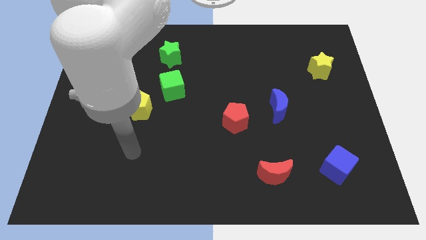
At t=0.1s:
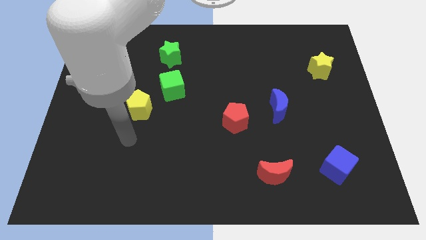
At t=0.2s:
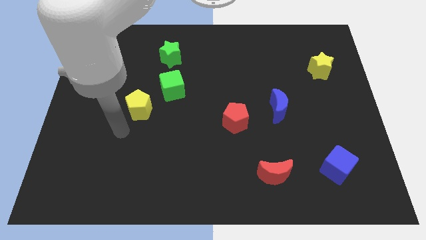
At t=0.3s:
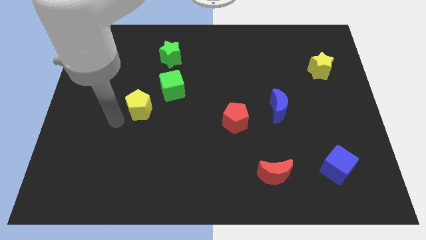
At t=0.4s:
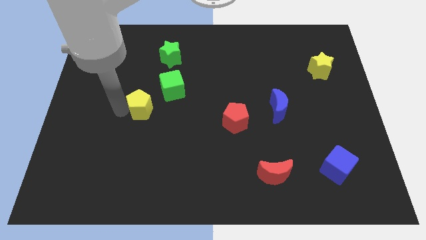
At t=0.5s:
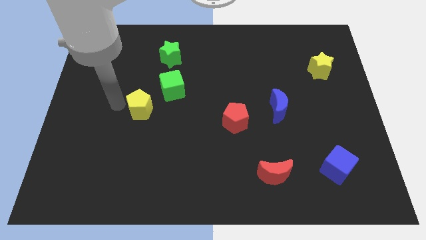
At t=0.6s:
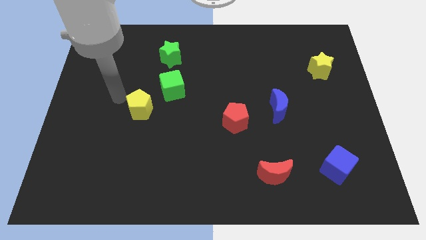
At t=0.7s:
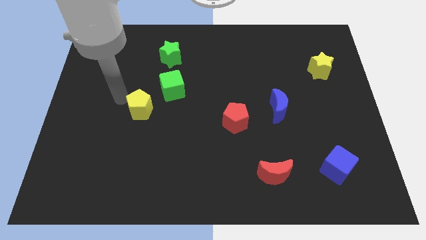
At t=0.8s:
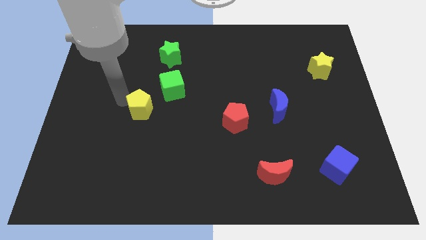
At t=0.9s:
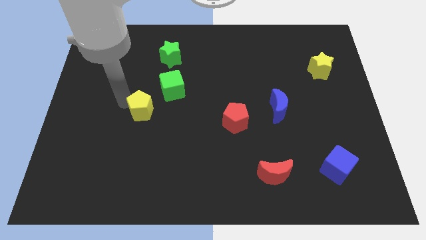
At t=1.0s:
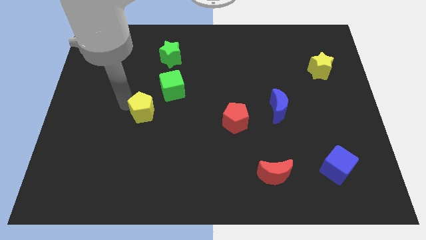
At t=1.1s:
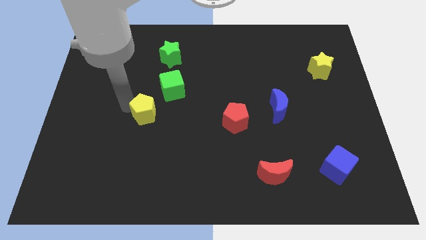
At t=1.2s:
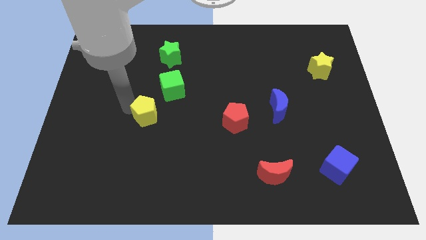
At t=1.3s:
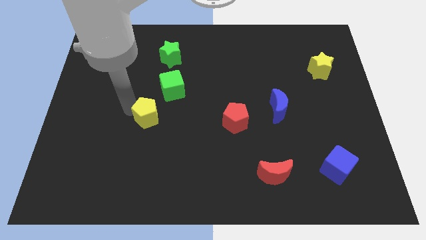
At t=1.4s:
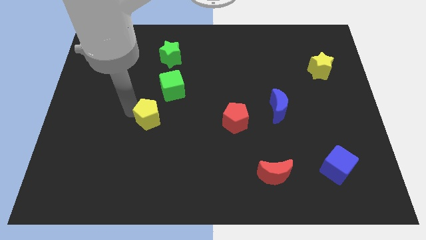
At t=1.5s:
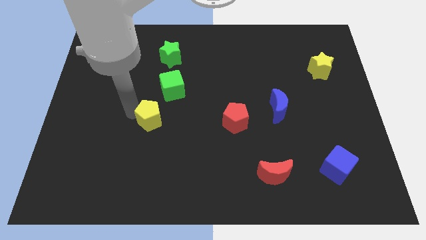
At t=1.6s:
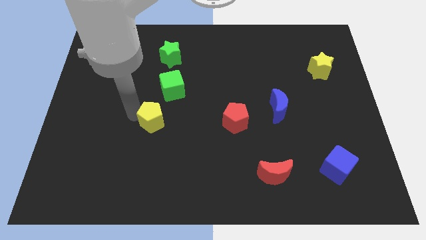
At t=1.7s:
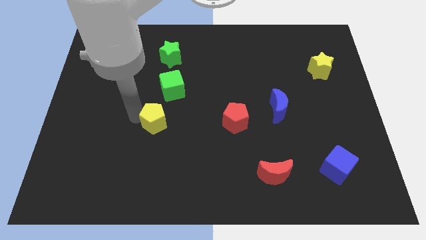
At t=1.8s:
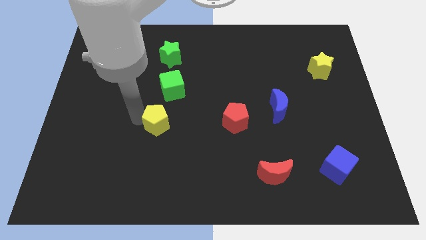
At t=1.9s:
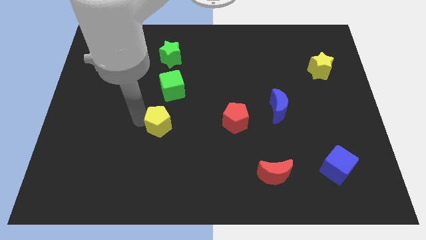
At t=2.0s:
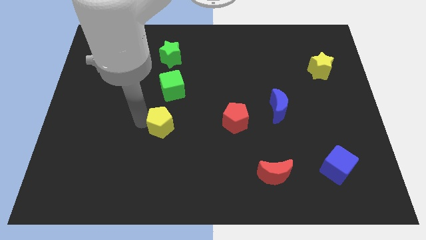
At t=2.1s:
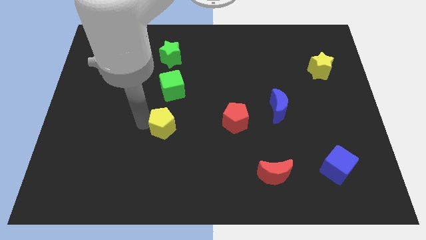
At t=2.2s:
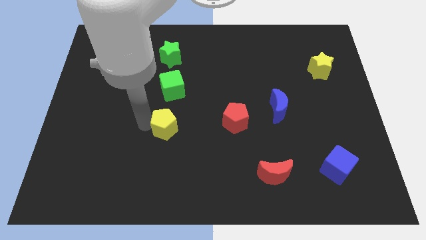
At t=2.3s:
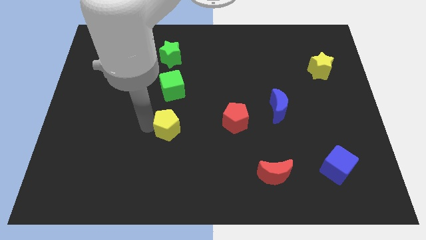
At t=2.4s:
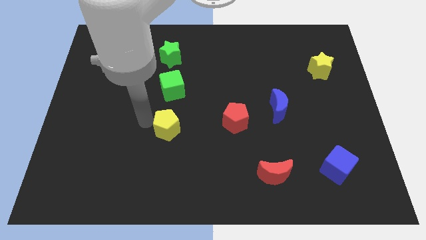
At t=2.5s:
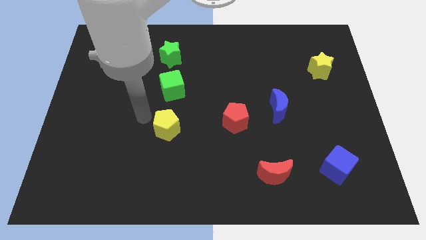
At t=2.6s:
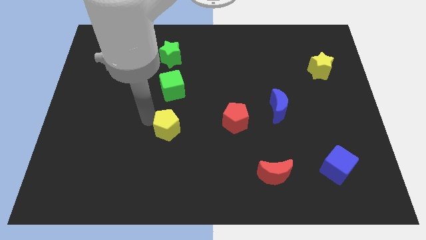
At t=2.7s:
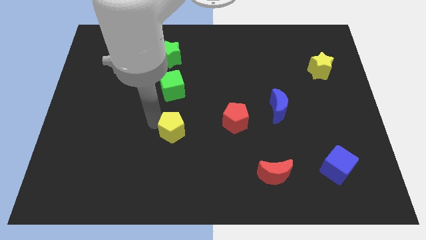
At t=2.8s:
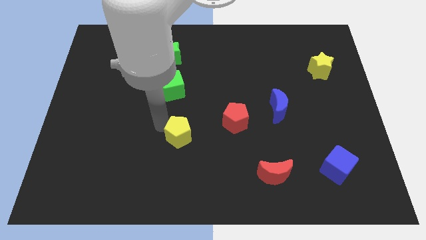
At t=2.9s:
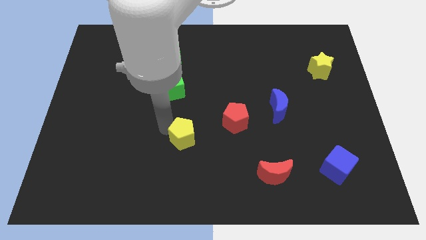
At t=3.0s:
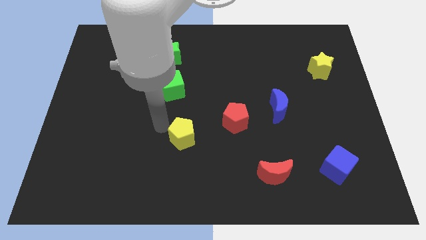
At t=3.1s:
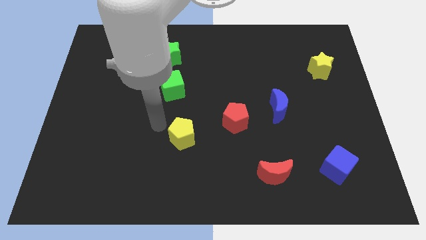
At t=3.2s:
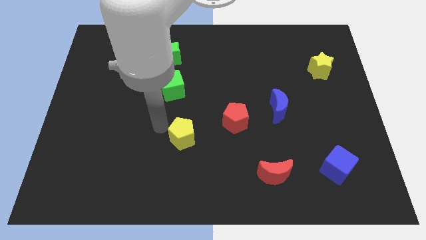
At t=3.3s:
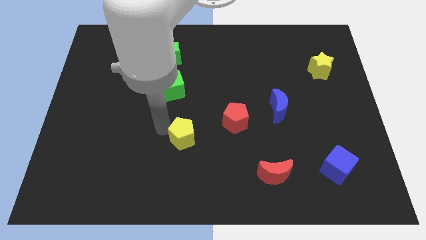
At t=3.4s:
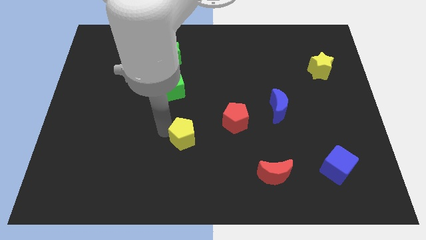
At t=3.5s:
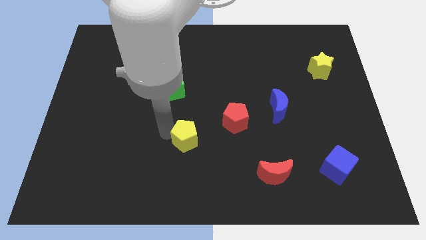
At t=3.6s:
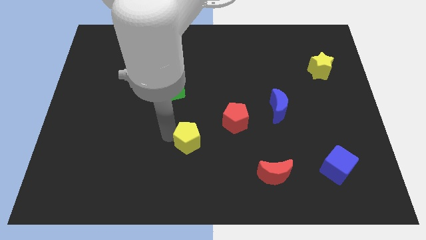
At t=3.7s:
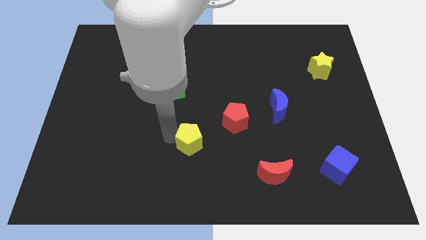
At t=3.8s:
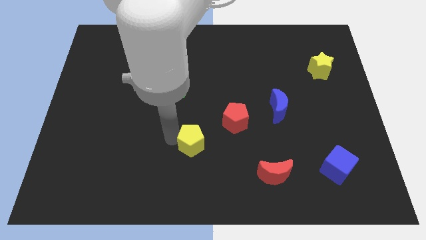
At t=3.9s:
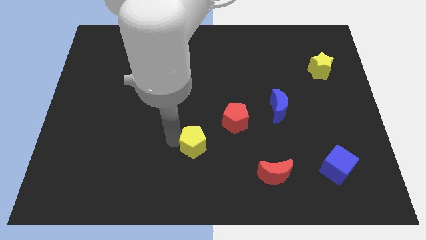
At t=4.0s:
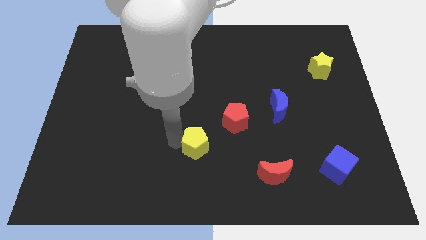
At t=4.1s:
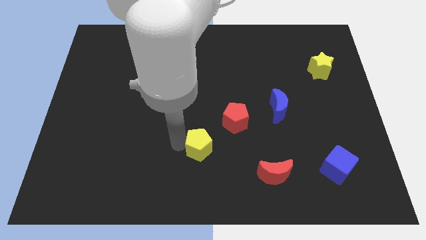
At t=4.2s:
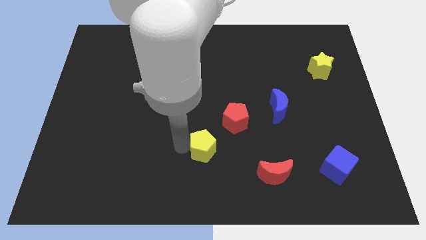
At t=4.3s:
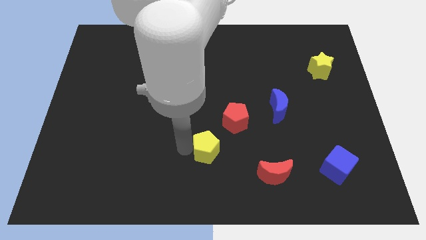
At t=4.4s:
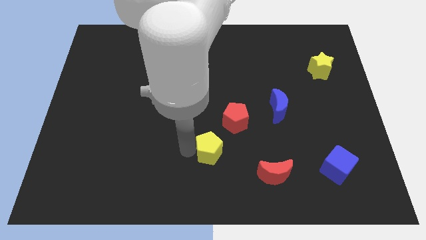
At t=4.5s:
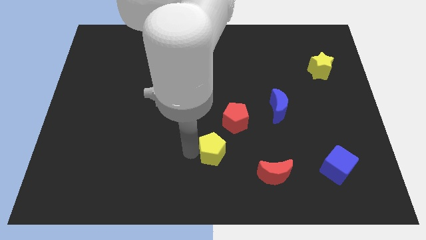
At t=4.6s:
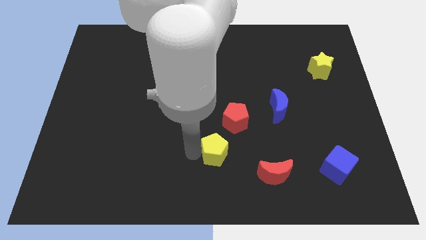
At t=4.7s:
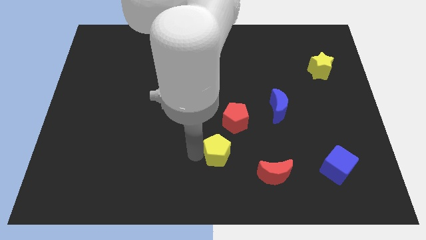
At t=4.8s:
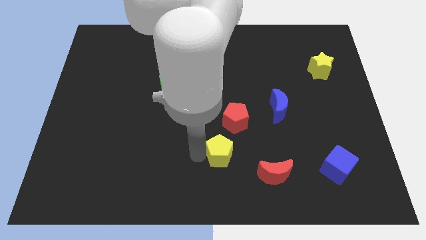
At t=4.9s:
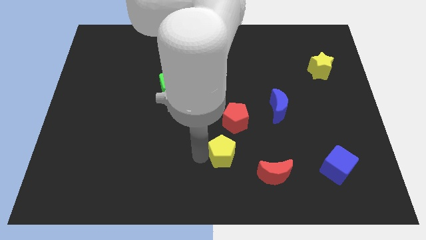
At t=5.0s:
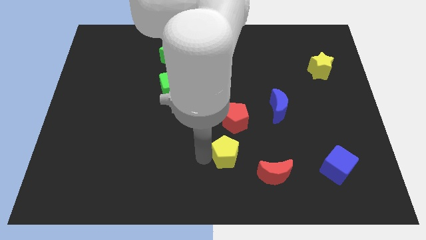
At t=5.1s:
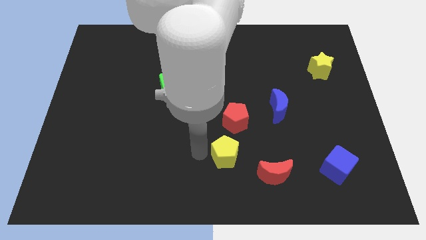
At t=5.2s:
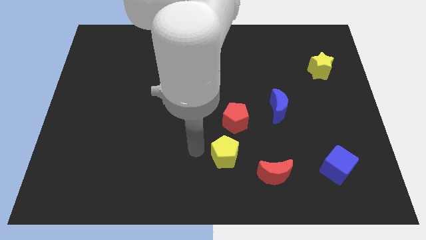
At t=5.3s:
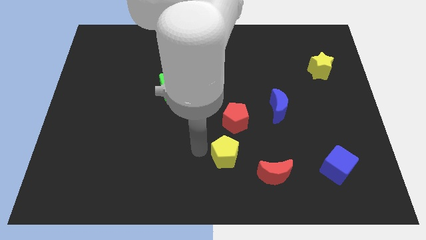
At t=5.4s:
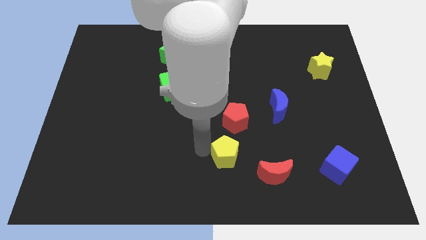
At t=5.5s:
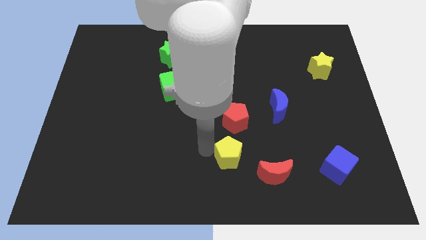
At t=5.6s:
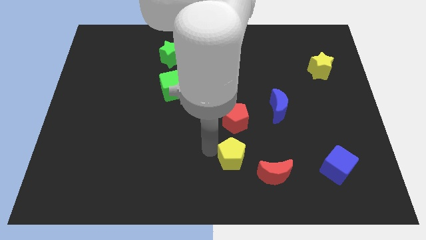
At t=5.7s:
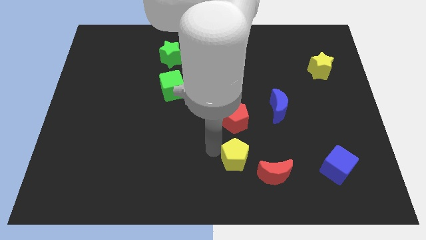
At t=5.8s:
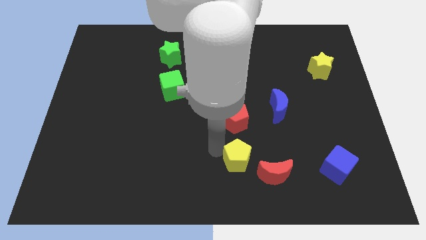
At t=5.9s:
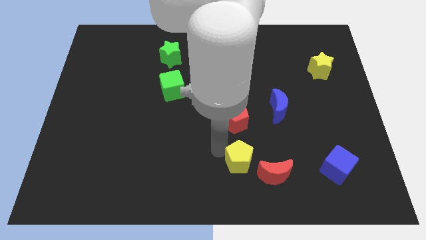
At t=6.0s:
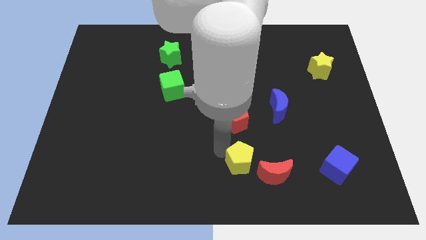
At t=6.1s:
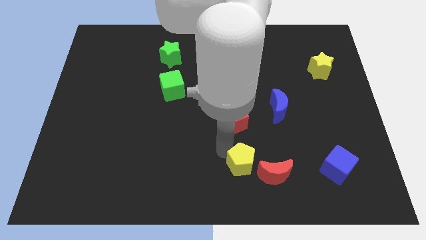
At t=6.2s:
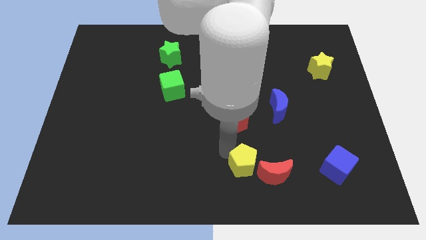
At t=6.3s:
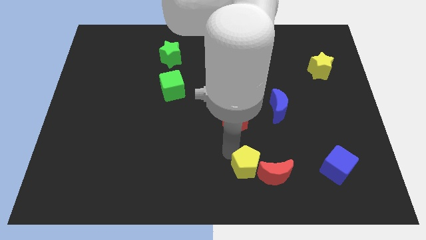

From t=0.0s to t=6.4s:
put the yellow pentagon to the red moon

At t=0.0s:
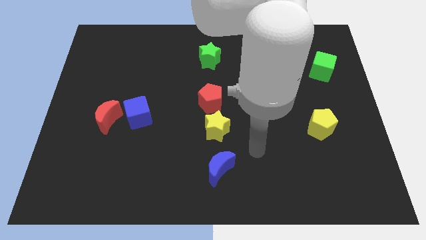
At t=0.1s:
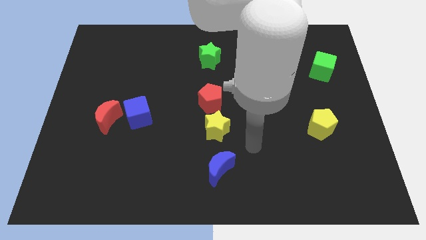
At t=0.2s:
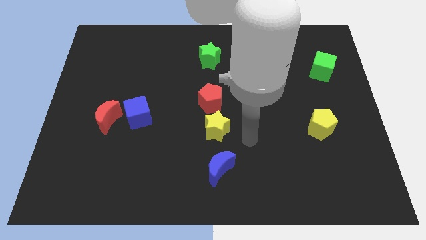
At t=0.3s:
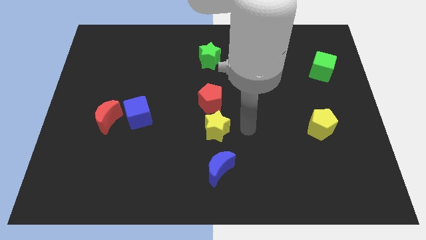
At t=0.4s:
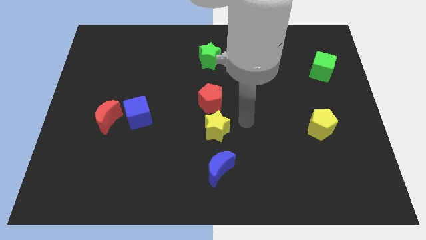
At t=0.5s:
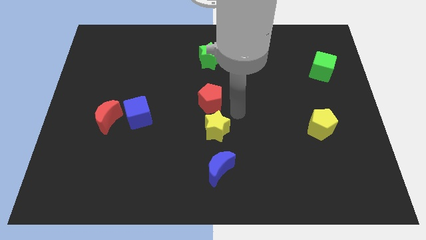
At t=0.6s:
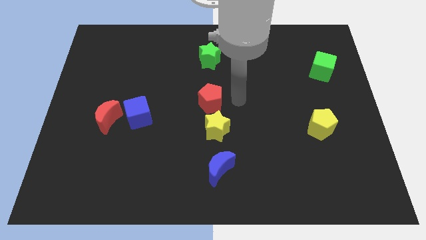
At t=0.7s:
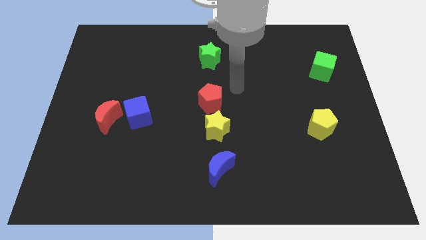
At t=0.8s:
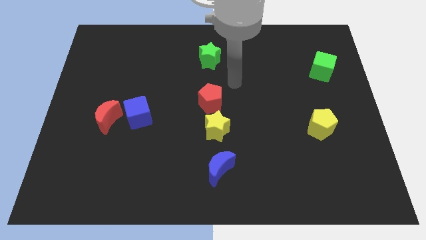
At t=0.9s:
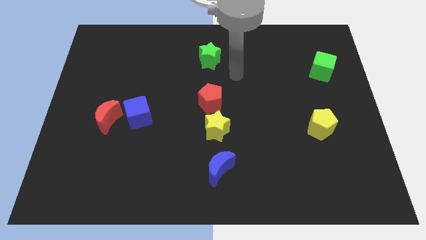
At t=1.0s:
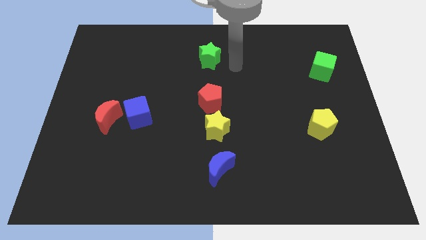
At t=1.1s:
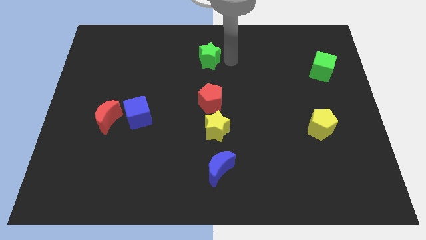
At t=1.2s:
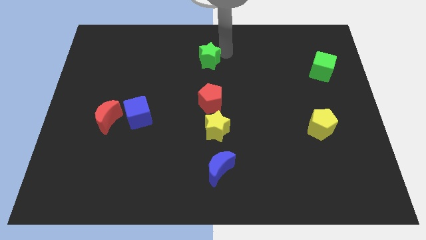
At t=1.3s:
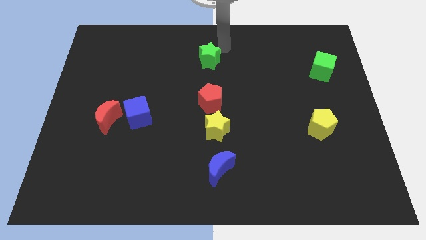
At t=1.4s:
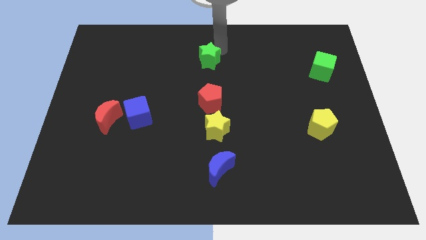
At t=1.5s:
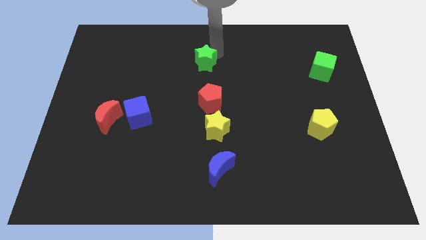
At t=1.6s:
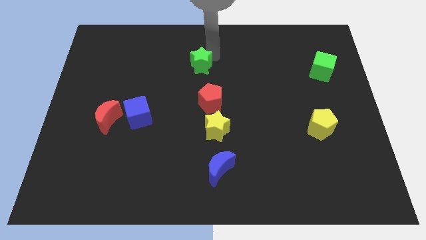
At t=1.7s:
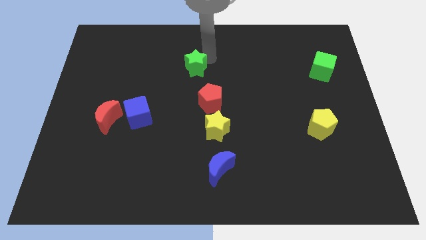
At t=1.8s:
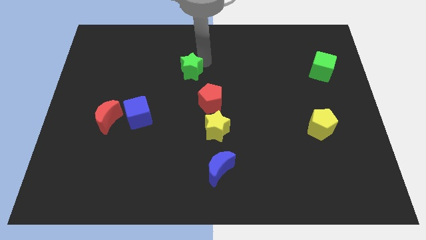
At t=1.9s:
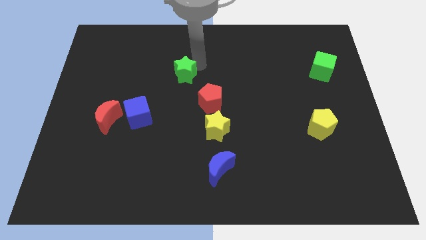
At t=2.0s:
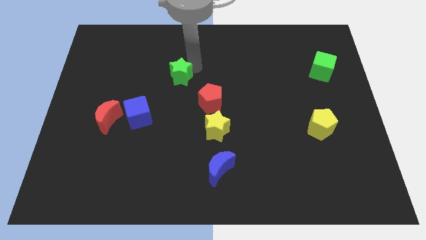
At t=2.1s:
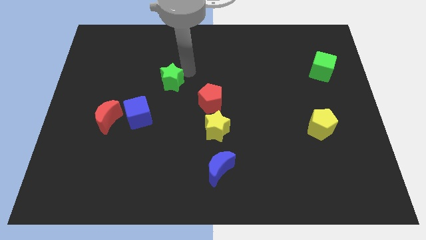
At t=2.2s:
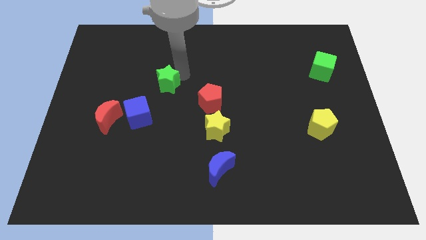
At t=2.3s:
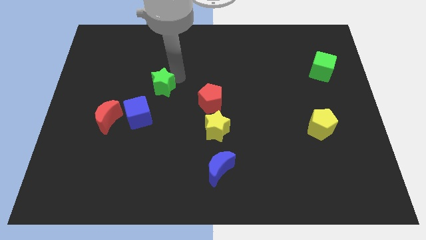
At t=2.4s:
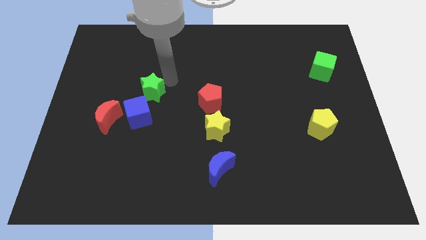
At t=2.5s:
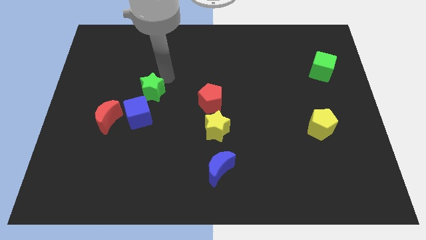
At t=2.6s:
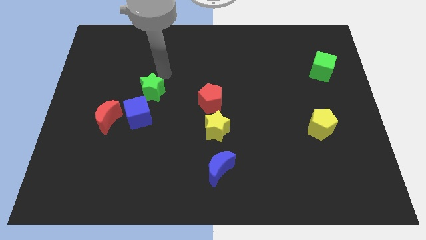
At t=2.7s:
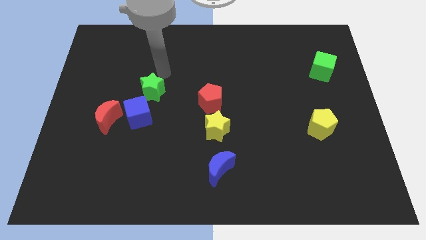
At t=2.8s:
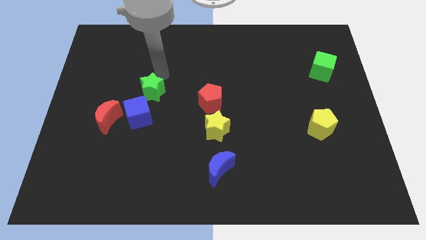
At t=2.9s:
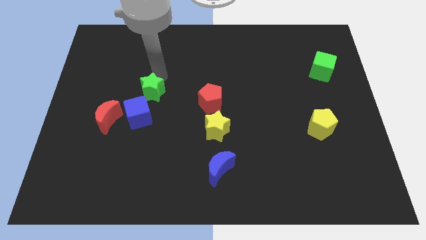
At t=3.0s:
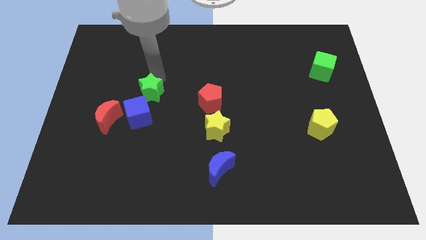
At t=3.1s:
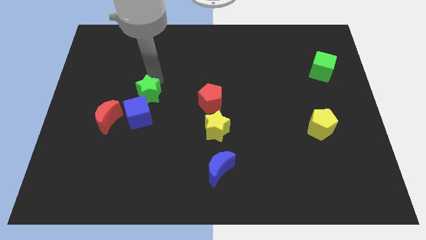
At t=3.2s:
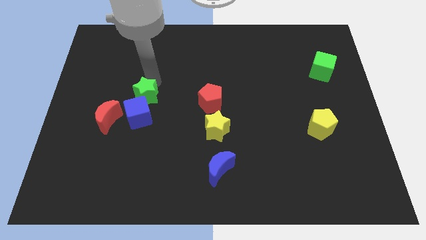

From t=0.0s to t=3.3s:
move the green star close to the blue cube
